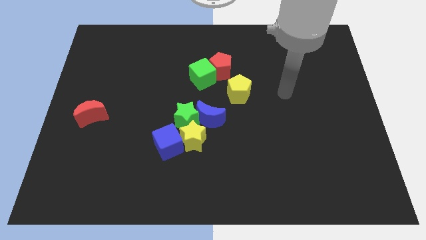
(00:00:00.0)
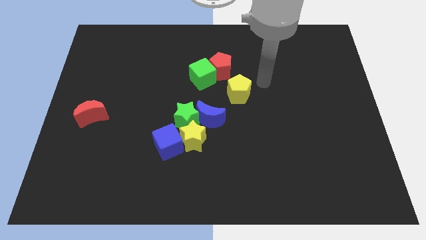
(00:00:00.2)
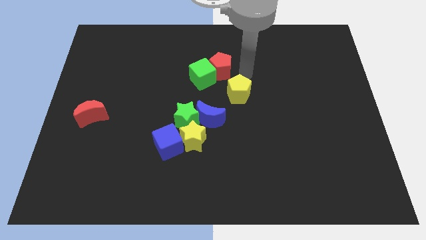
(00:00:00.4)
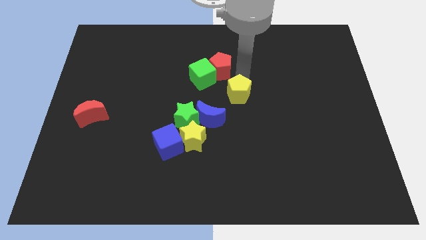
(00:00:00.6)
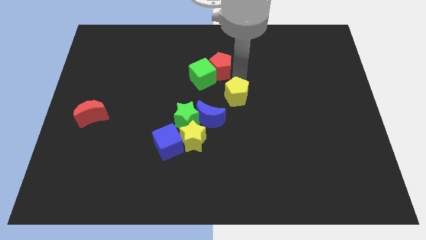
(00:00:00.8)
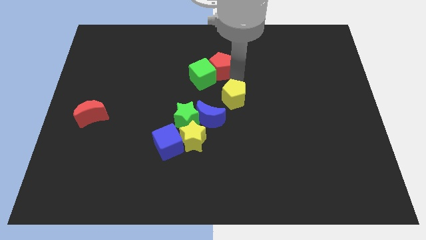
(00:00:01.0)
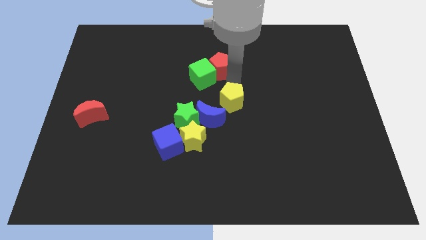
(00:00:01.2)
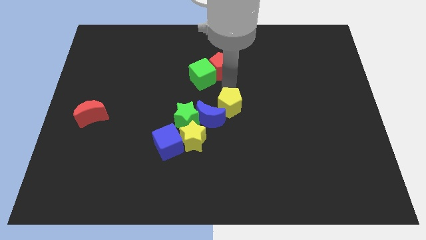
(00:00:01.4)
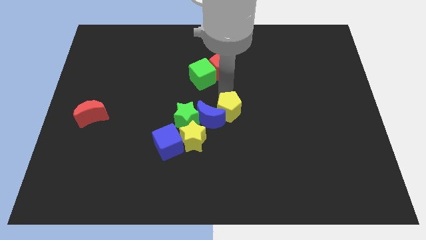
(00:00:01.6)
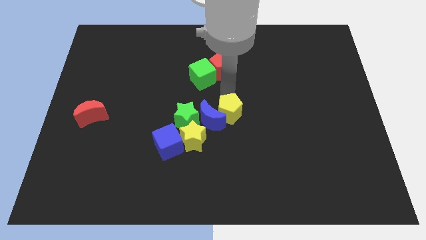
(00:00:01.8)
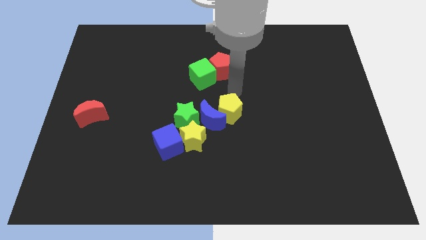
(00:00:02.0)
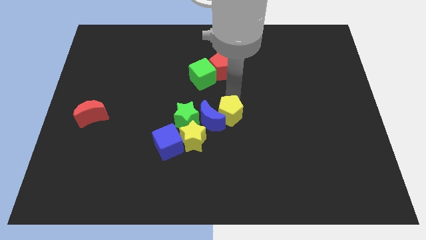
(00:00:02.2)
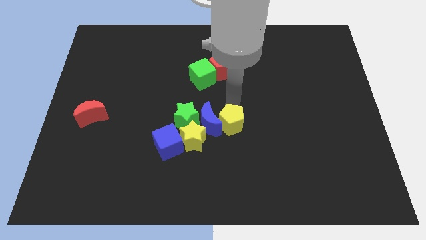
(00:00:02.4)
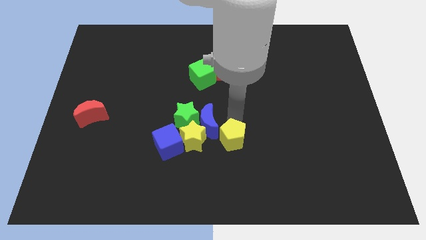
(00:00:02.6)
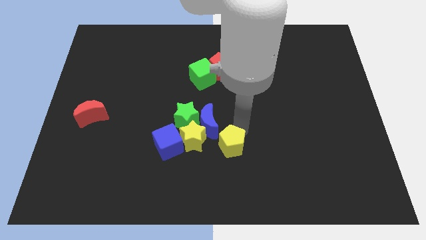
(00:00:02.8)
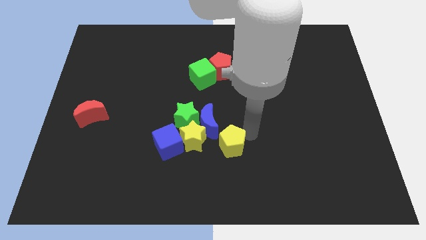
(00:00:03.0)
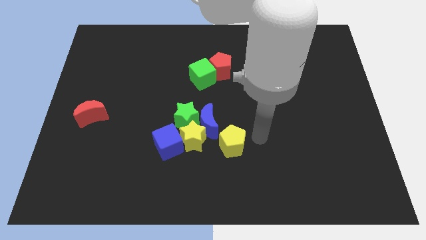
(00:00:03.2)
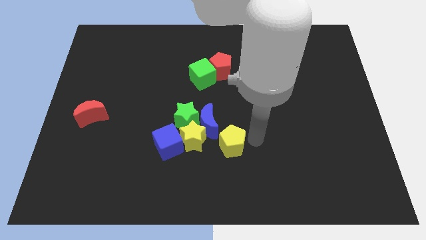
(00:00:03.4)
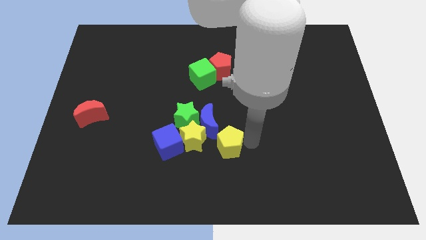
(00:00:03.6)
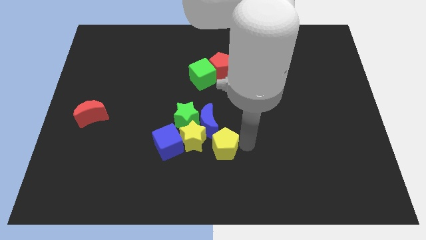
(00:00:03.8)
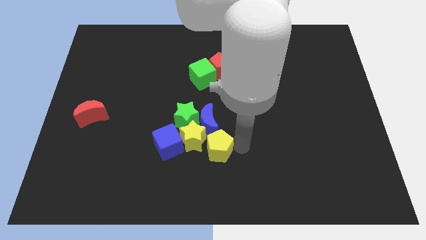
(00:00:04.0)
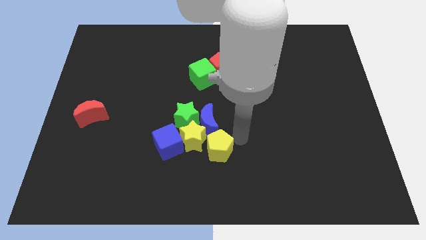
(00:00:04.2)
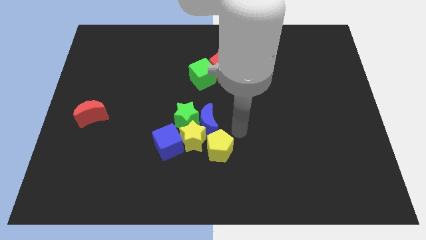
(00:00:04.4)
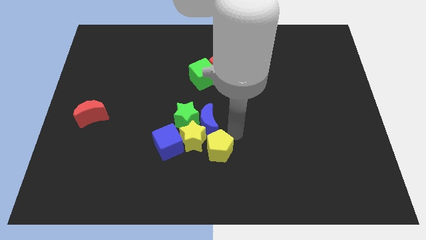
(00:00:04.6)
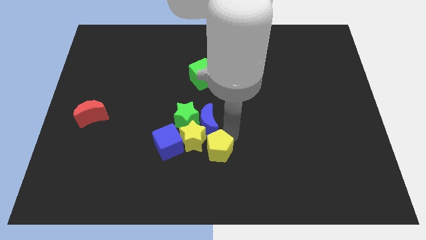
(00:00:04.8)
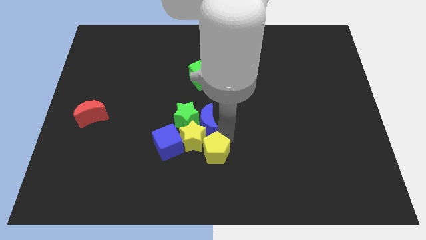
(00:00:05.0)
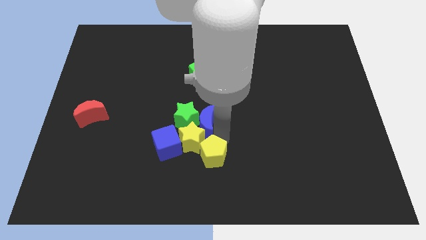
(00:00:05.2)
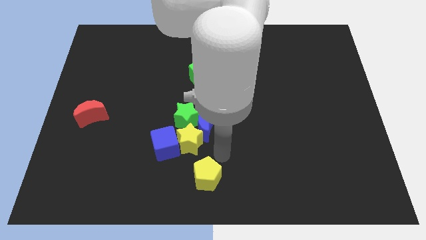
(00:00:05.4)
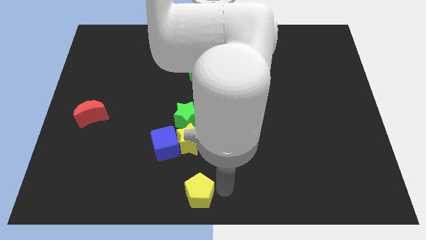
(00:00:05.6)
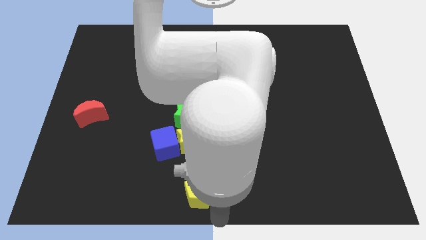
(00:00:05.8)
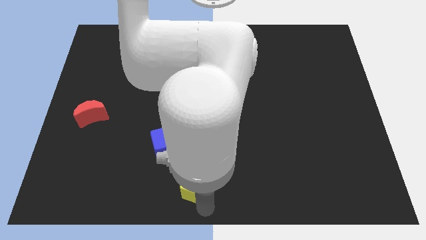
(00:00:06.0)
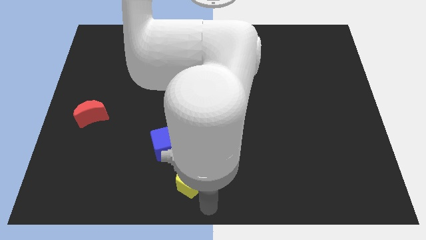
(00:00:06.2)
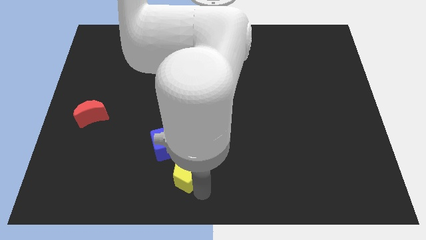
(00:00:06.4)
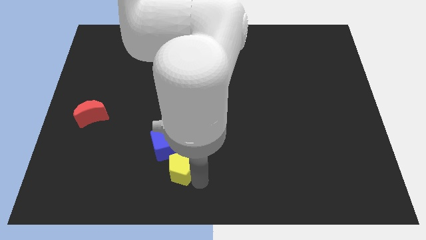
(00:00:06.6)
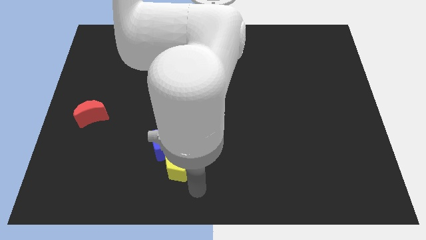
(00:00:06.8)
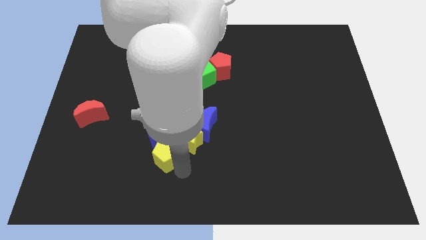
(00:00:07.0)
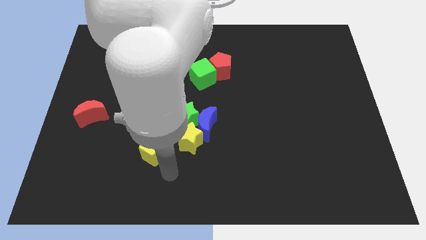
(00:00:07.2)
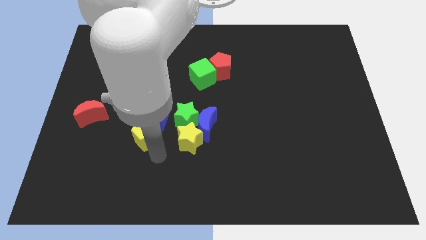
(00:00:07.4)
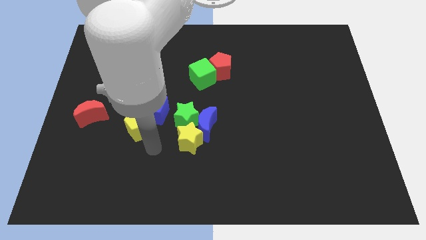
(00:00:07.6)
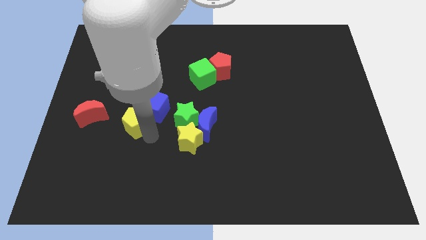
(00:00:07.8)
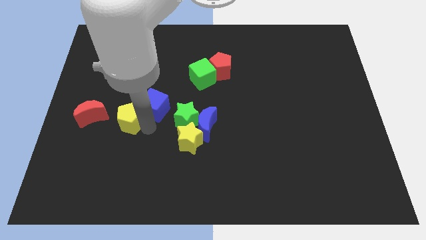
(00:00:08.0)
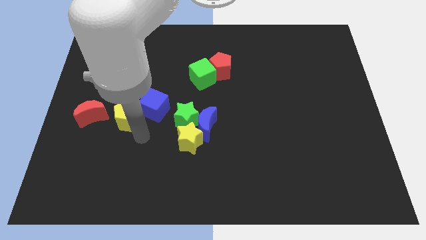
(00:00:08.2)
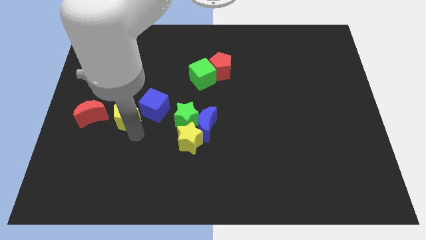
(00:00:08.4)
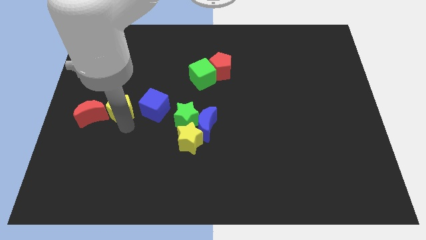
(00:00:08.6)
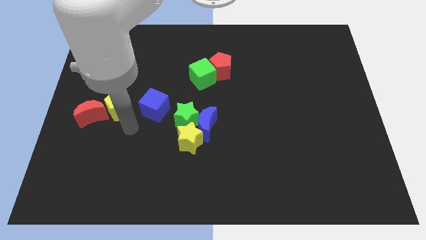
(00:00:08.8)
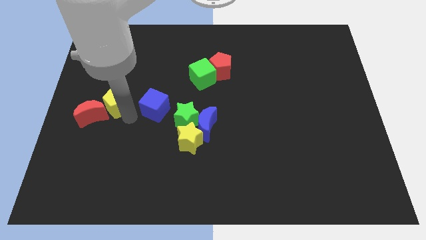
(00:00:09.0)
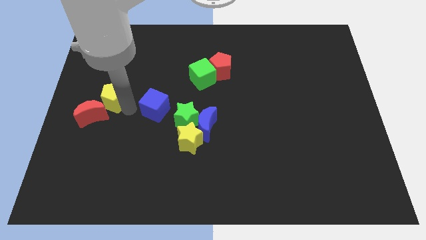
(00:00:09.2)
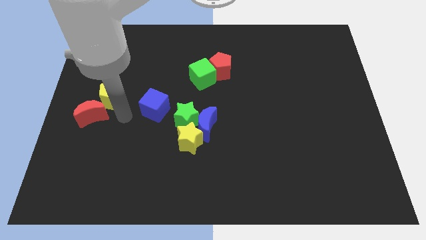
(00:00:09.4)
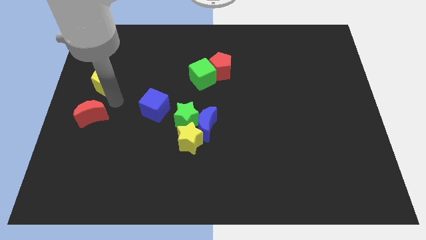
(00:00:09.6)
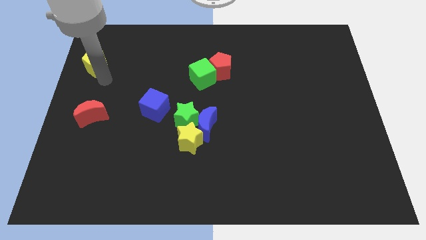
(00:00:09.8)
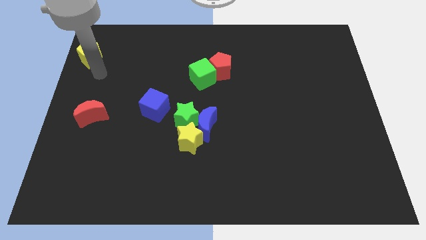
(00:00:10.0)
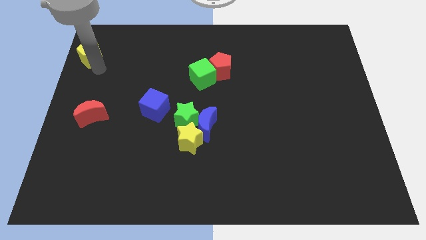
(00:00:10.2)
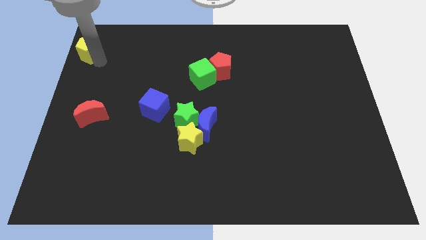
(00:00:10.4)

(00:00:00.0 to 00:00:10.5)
slide the yellow pentagon to the top left of the board

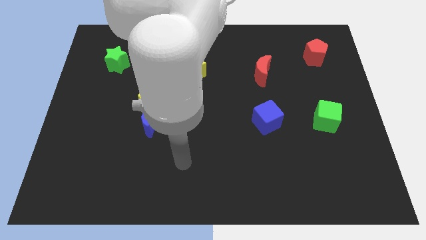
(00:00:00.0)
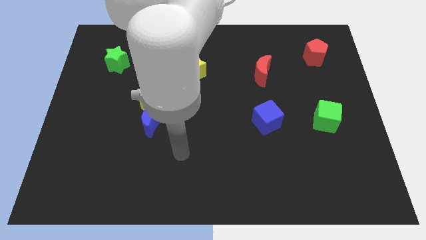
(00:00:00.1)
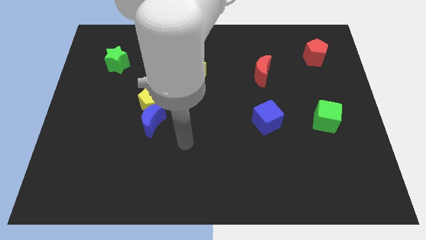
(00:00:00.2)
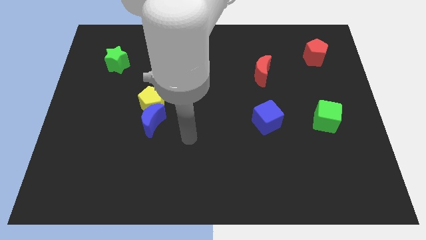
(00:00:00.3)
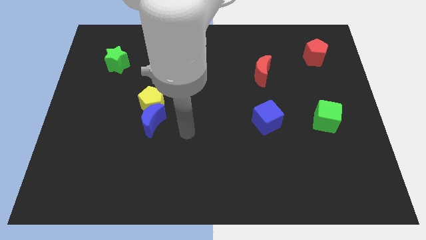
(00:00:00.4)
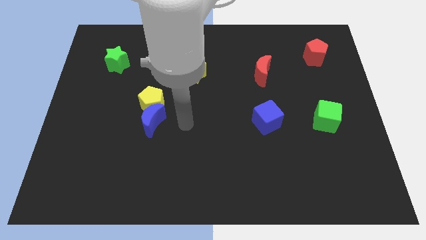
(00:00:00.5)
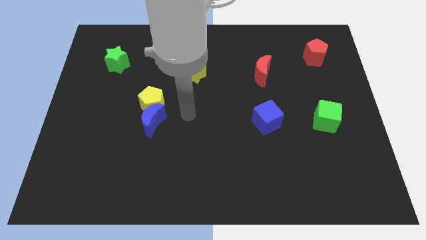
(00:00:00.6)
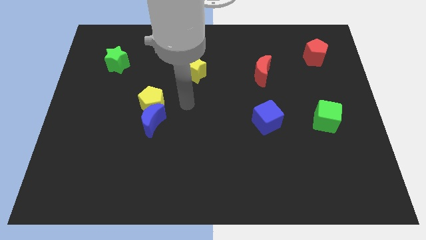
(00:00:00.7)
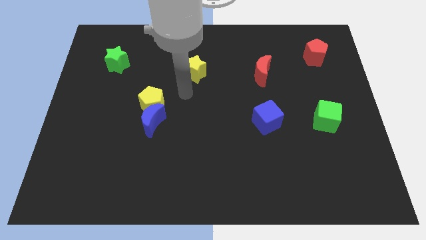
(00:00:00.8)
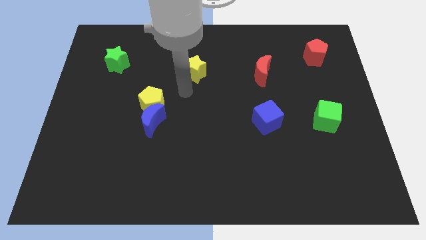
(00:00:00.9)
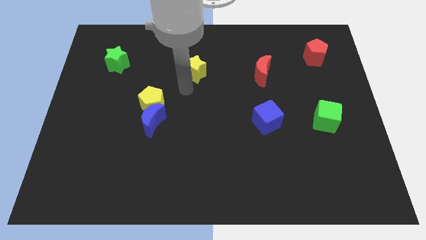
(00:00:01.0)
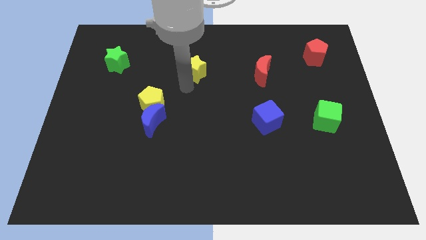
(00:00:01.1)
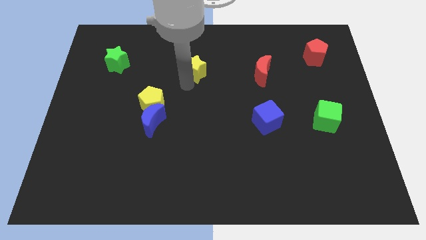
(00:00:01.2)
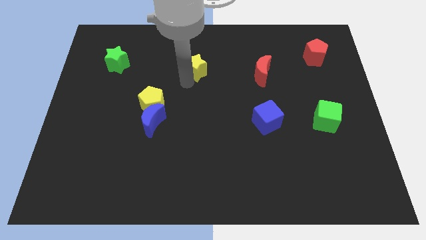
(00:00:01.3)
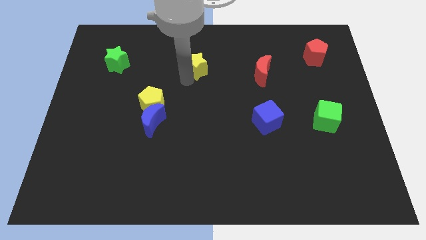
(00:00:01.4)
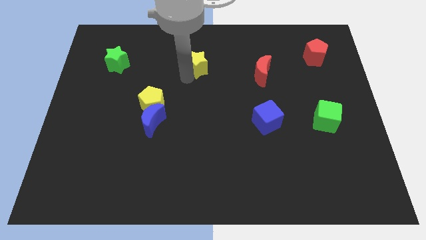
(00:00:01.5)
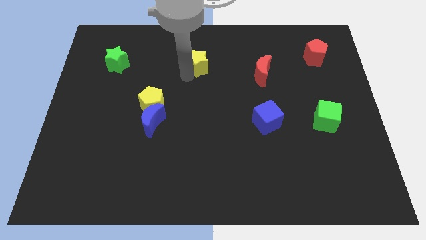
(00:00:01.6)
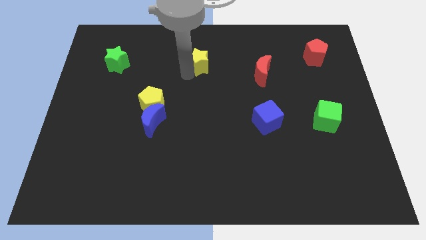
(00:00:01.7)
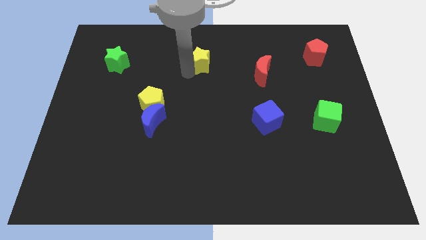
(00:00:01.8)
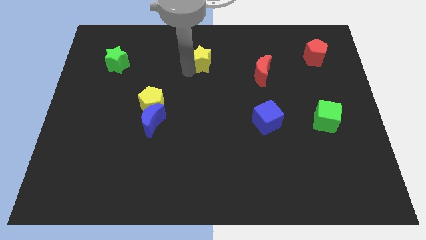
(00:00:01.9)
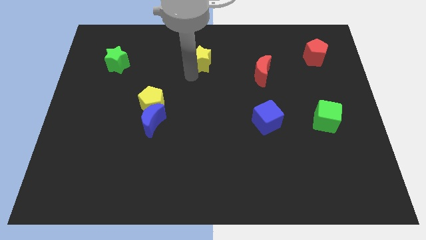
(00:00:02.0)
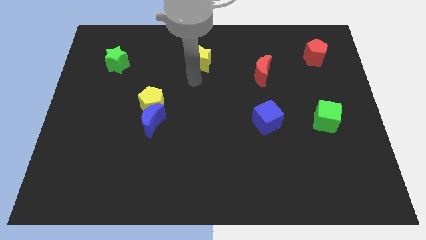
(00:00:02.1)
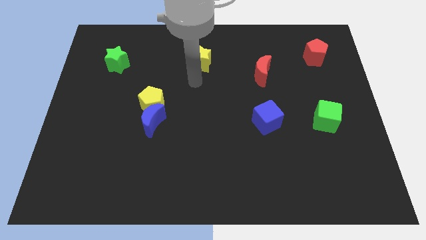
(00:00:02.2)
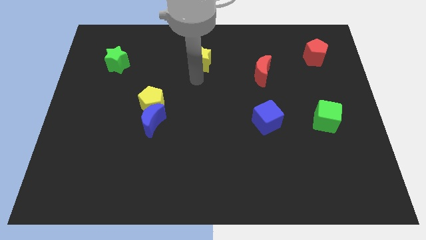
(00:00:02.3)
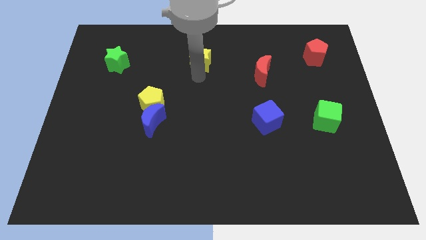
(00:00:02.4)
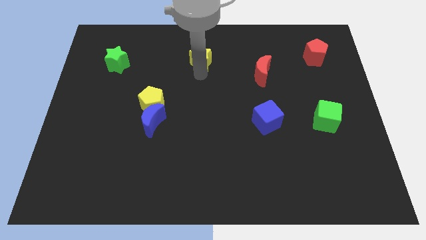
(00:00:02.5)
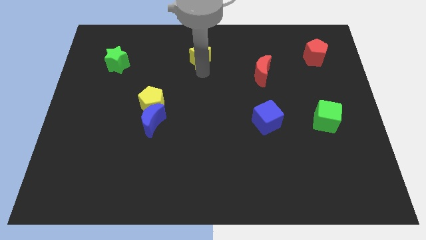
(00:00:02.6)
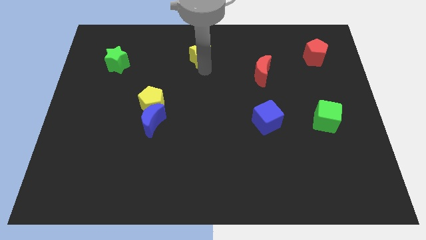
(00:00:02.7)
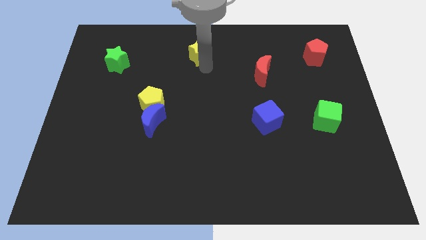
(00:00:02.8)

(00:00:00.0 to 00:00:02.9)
put the yellow star to the top side

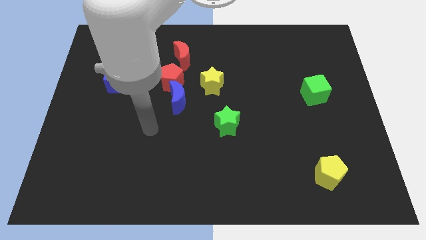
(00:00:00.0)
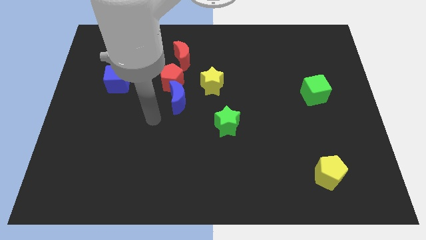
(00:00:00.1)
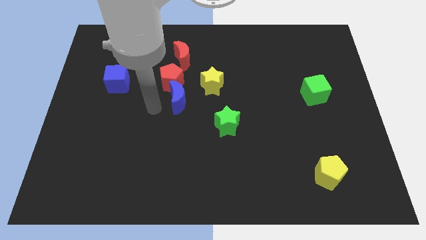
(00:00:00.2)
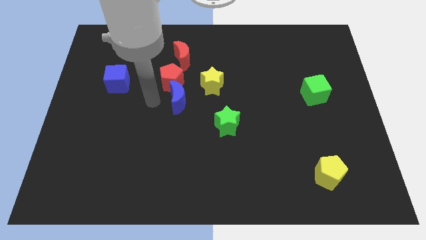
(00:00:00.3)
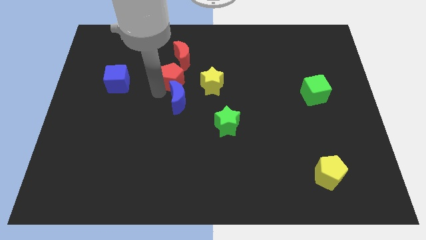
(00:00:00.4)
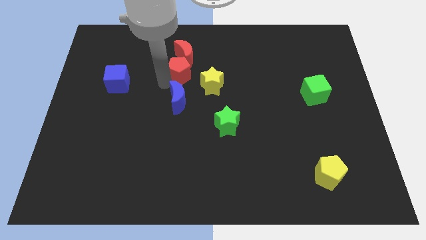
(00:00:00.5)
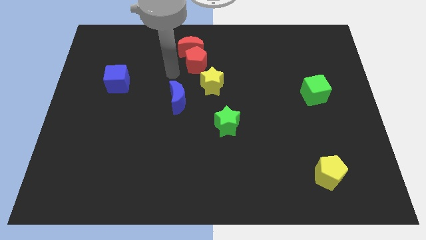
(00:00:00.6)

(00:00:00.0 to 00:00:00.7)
put the red moon to the towards your base
